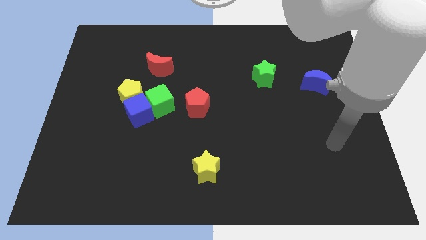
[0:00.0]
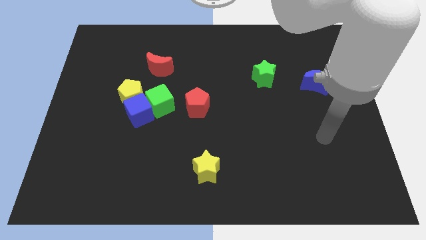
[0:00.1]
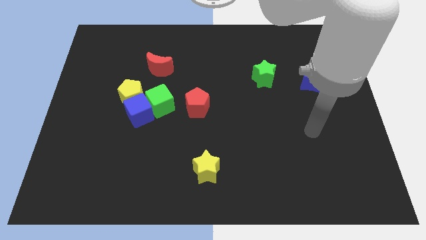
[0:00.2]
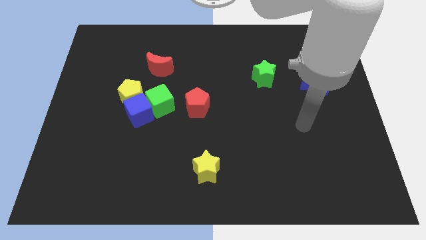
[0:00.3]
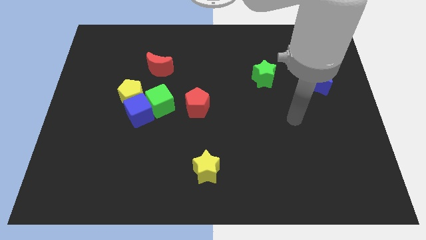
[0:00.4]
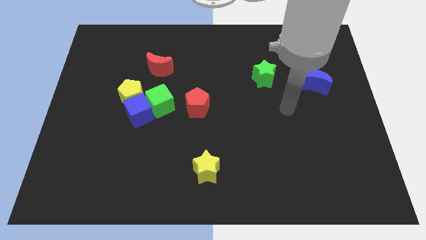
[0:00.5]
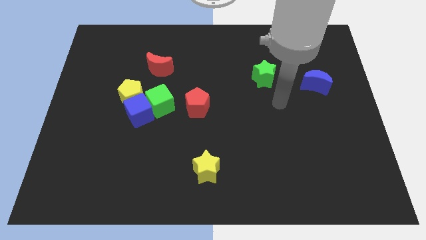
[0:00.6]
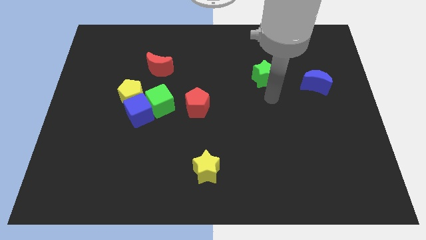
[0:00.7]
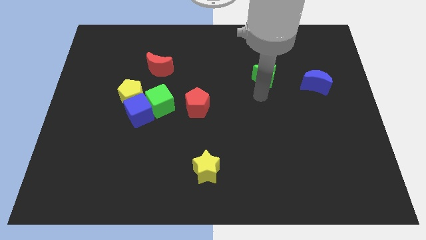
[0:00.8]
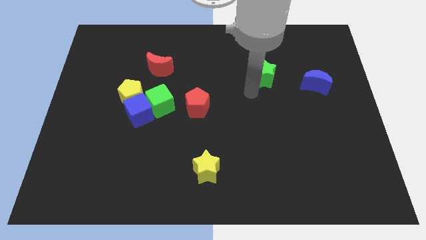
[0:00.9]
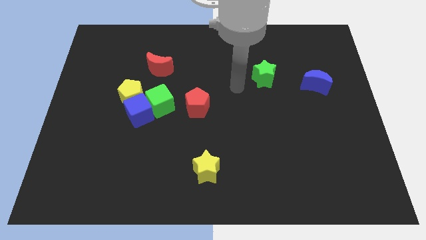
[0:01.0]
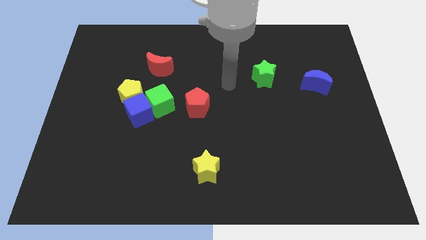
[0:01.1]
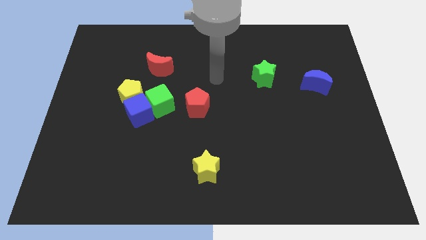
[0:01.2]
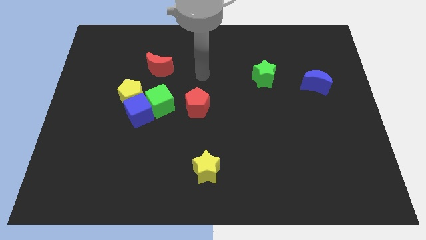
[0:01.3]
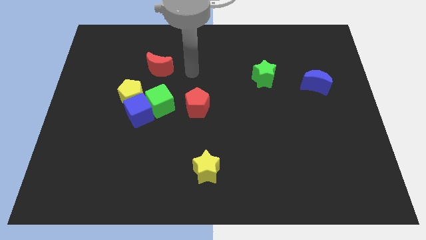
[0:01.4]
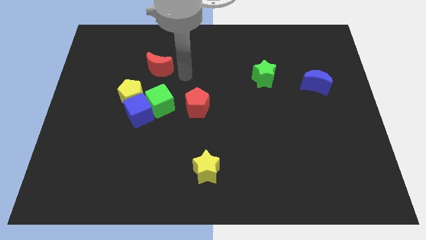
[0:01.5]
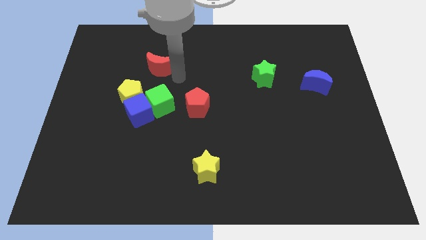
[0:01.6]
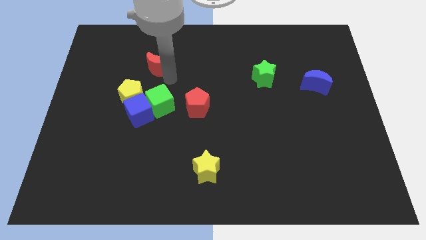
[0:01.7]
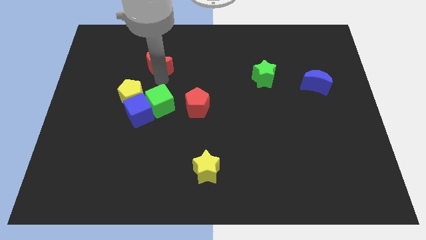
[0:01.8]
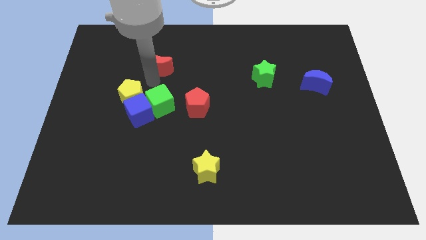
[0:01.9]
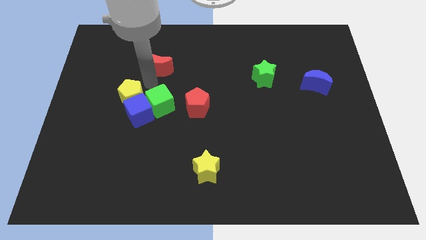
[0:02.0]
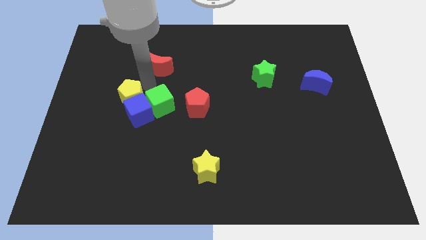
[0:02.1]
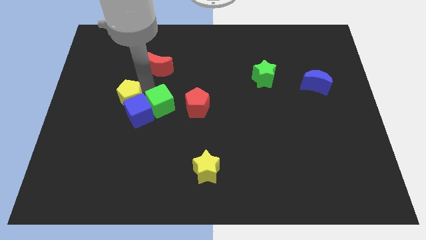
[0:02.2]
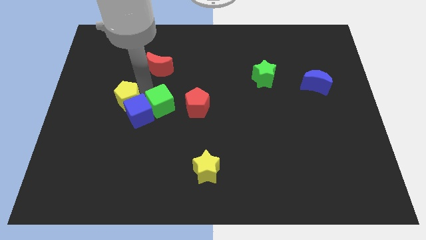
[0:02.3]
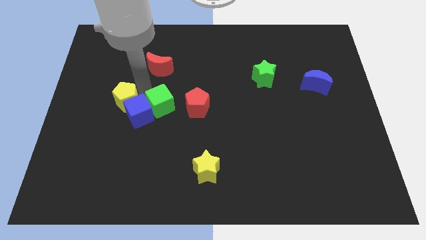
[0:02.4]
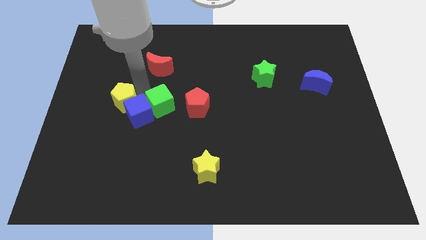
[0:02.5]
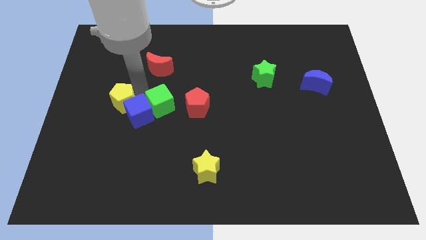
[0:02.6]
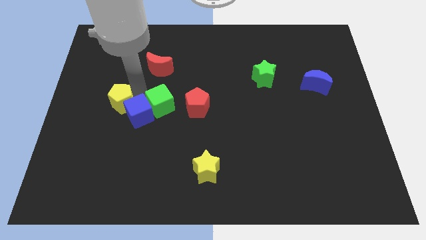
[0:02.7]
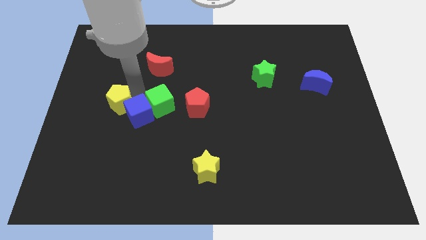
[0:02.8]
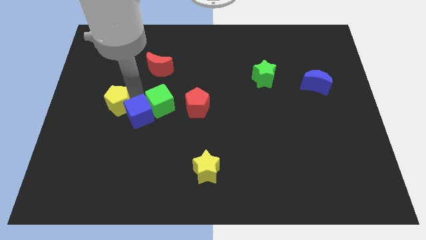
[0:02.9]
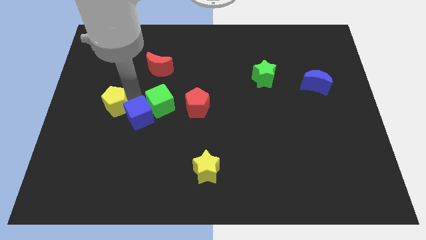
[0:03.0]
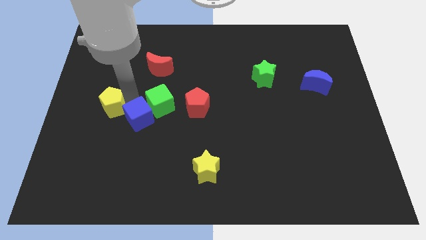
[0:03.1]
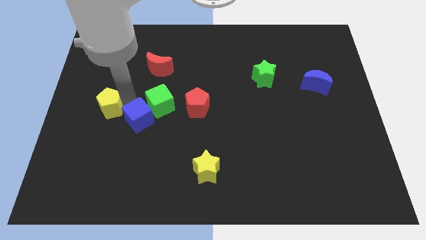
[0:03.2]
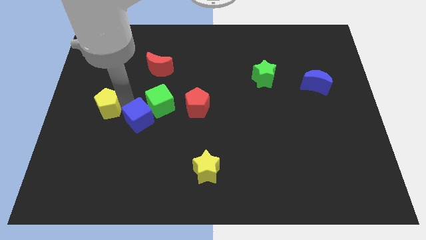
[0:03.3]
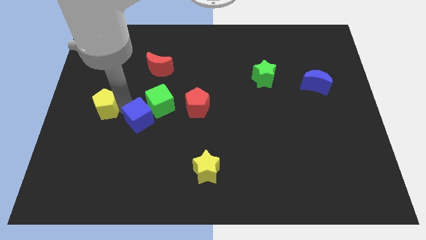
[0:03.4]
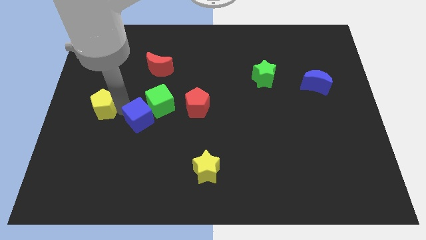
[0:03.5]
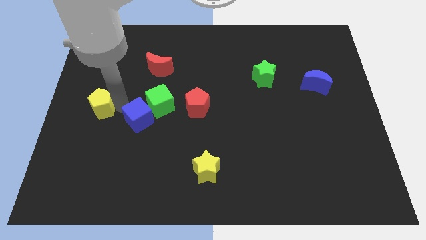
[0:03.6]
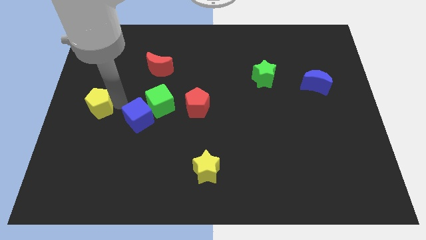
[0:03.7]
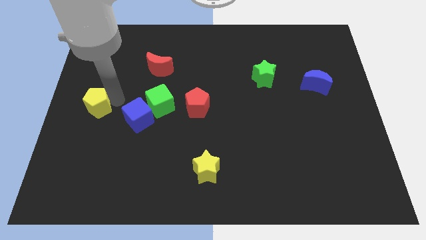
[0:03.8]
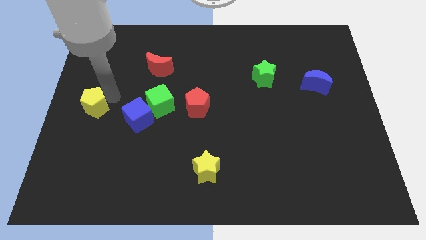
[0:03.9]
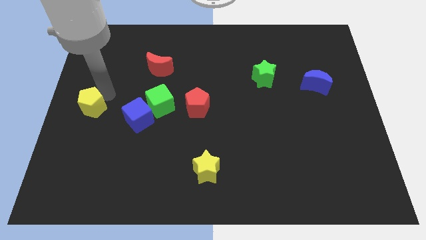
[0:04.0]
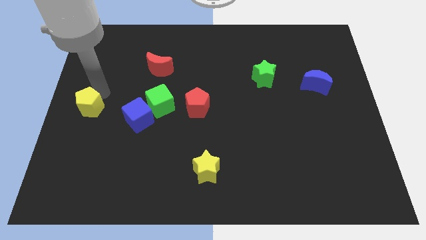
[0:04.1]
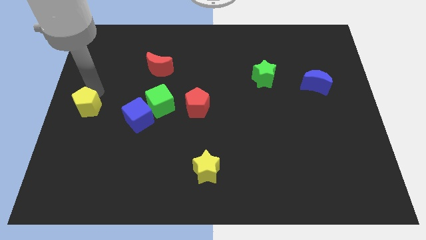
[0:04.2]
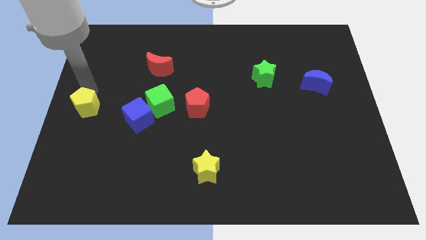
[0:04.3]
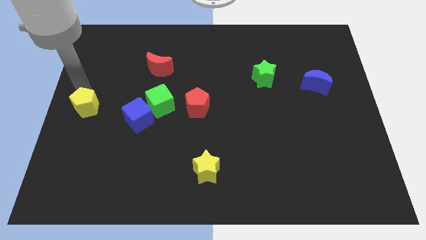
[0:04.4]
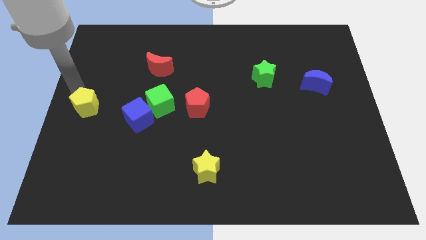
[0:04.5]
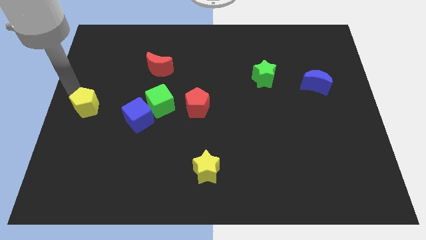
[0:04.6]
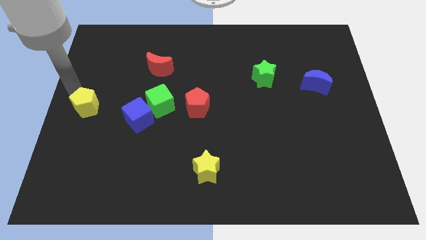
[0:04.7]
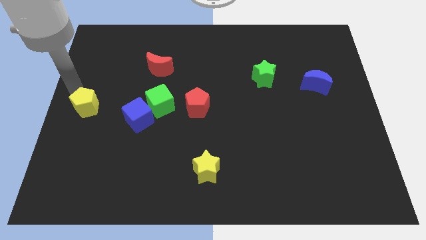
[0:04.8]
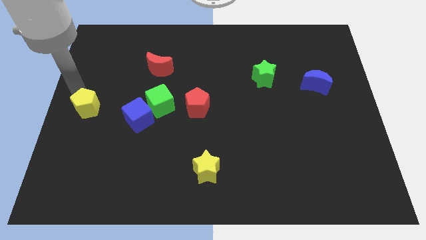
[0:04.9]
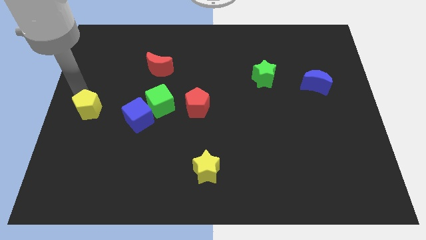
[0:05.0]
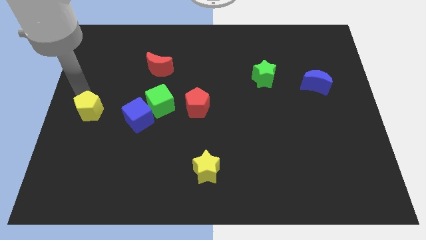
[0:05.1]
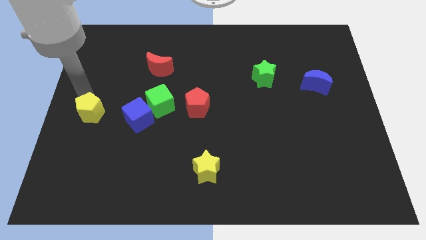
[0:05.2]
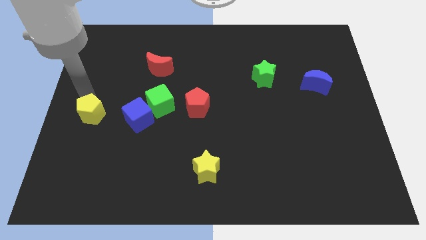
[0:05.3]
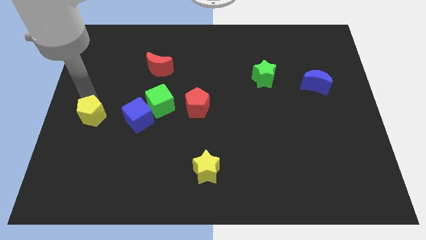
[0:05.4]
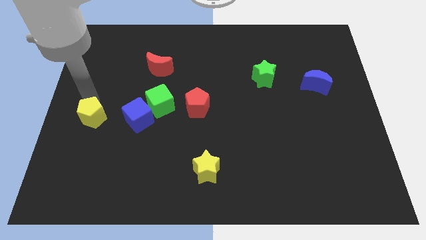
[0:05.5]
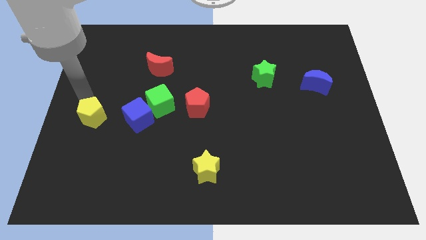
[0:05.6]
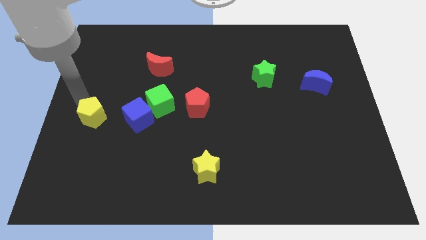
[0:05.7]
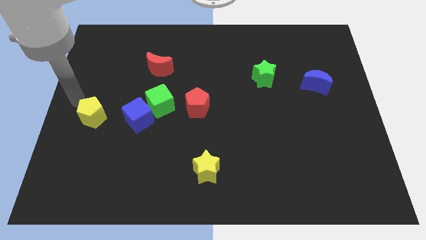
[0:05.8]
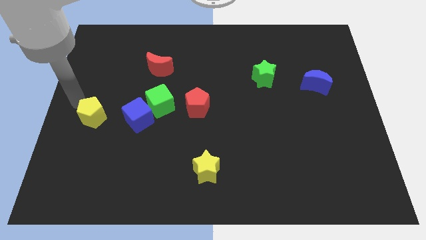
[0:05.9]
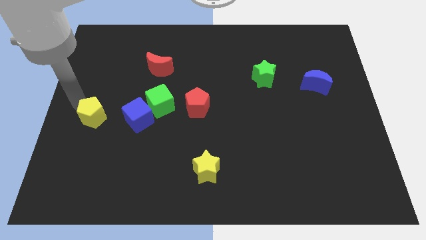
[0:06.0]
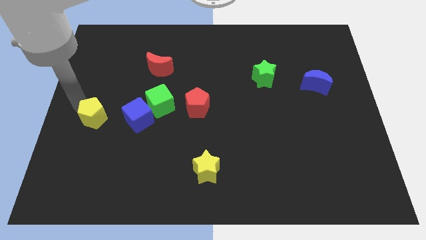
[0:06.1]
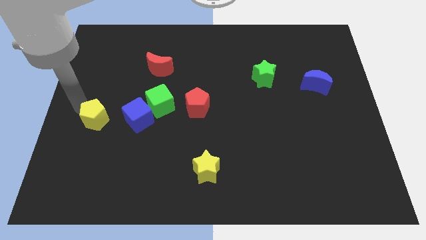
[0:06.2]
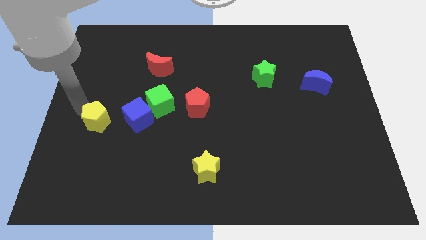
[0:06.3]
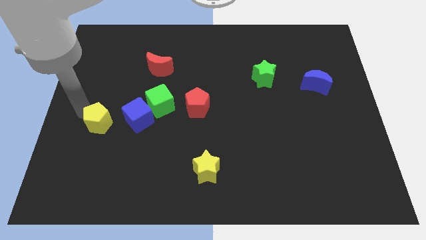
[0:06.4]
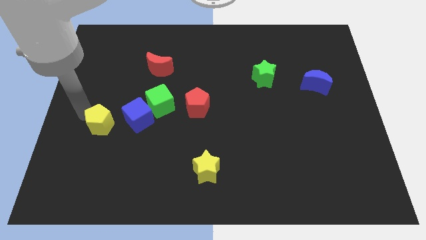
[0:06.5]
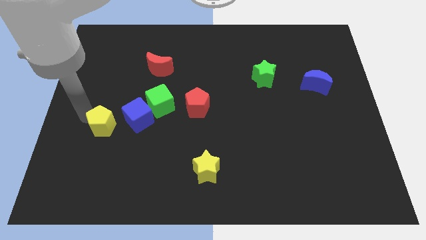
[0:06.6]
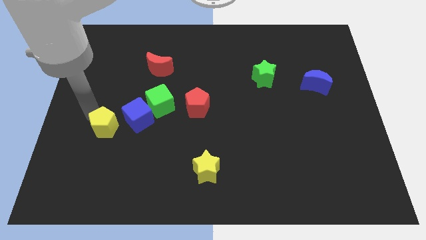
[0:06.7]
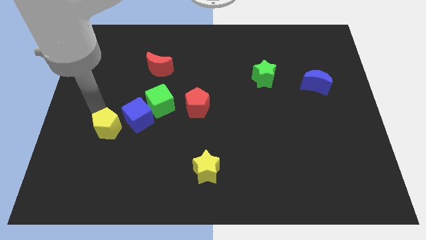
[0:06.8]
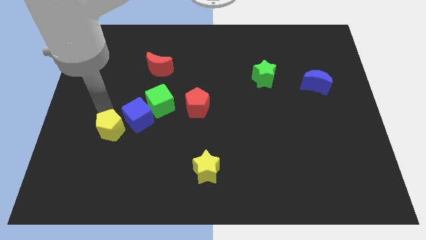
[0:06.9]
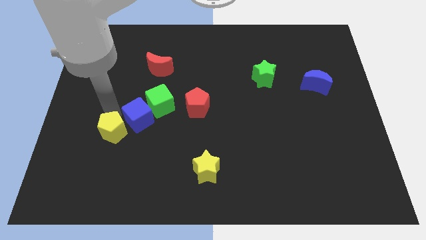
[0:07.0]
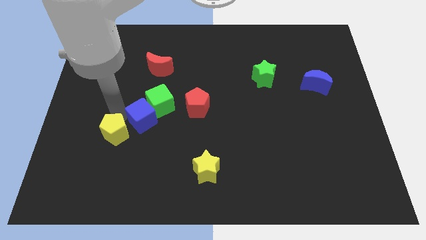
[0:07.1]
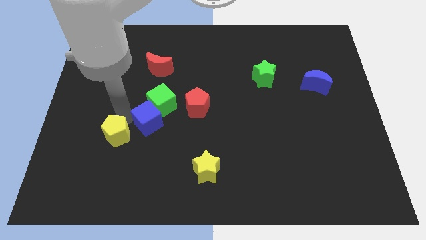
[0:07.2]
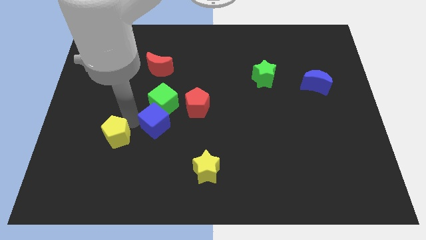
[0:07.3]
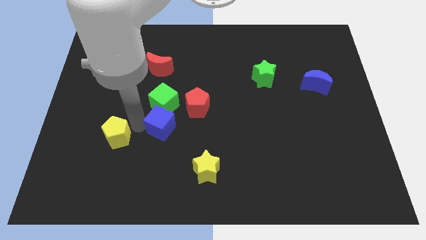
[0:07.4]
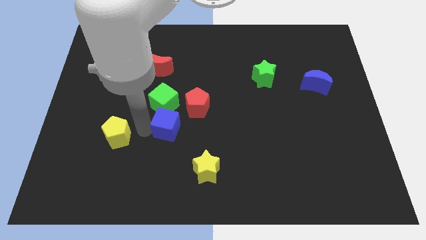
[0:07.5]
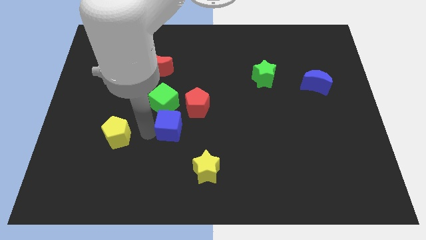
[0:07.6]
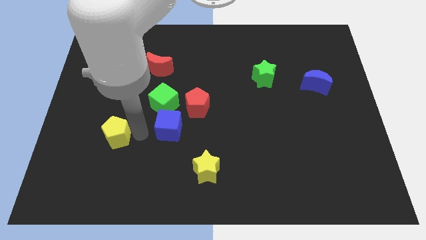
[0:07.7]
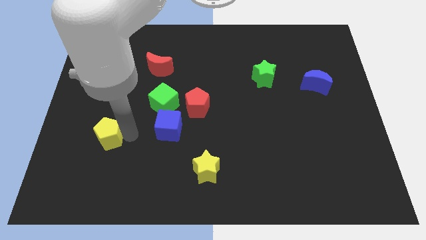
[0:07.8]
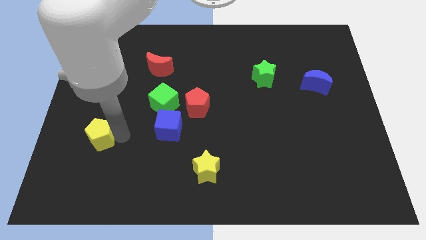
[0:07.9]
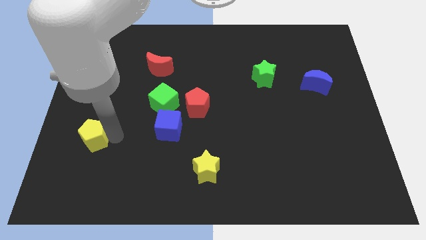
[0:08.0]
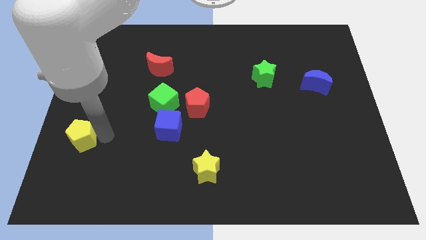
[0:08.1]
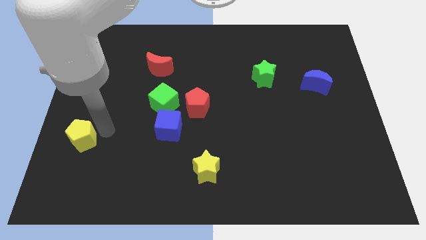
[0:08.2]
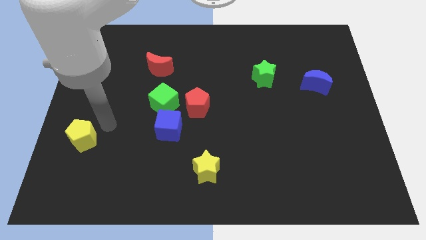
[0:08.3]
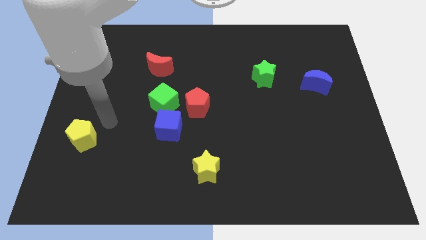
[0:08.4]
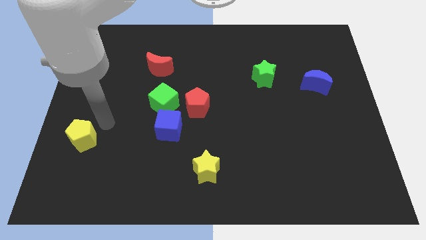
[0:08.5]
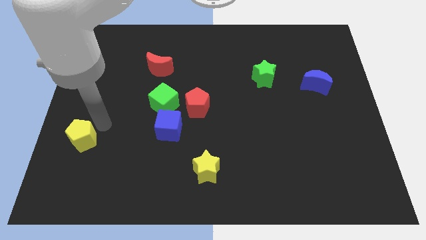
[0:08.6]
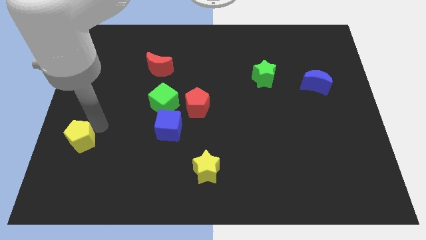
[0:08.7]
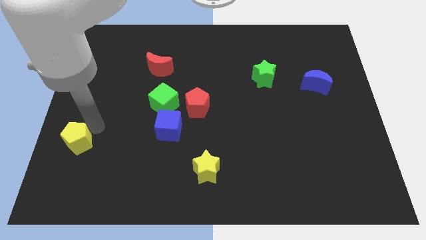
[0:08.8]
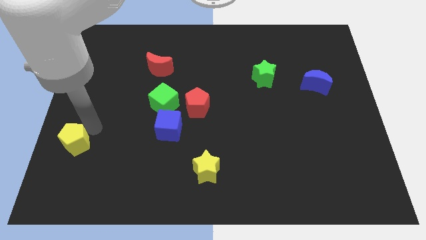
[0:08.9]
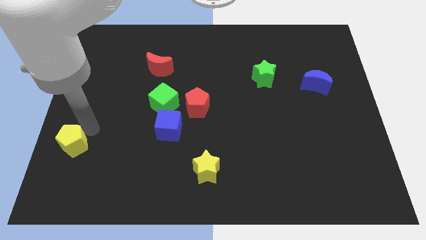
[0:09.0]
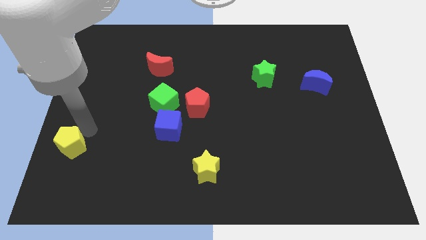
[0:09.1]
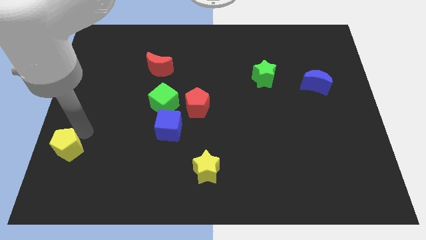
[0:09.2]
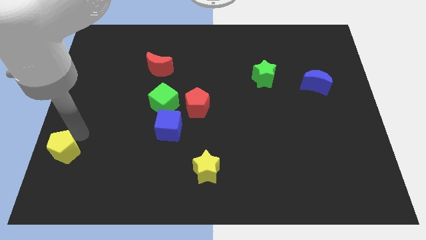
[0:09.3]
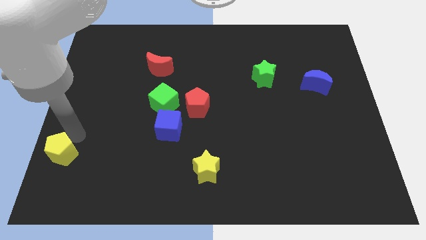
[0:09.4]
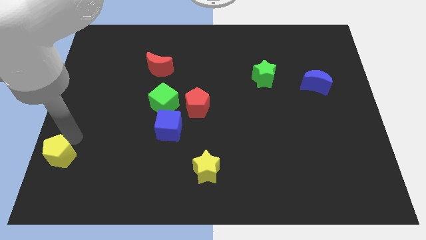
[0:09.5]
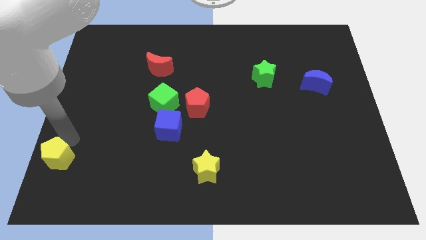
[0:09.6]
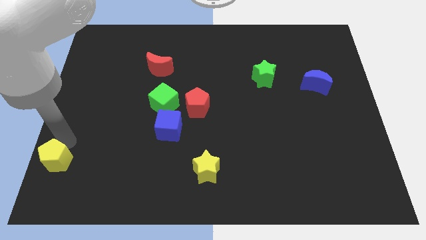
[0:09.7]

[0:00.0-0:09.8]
slide the yellow pentagon to the lower left corner
